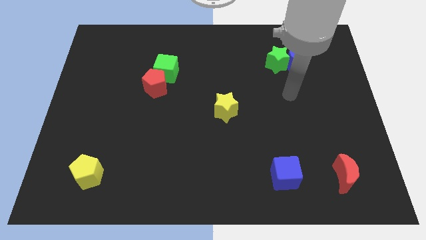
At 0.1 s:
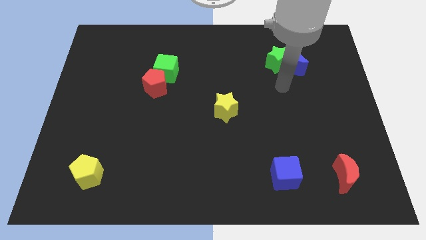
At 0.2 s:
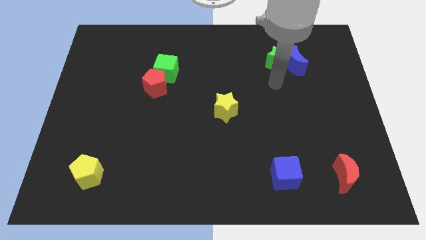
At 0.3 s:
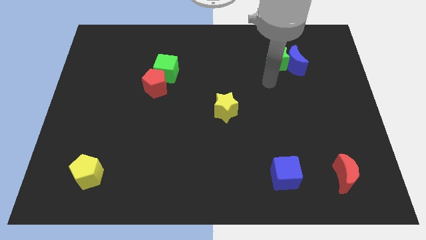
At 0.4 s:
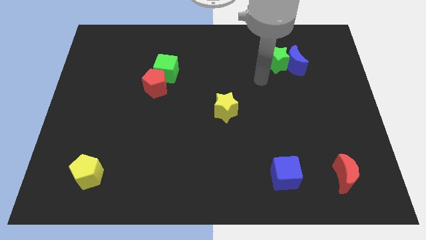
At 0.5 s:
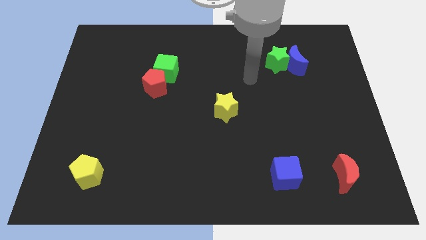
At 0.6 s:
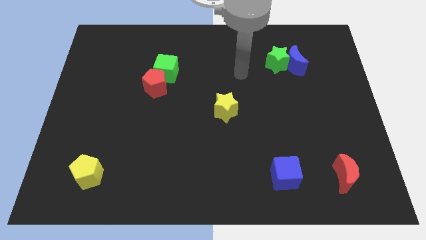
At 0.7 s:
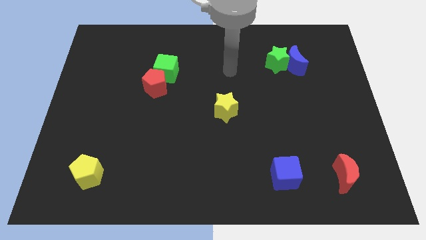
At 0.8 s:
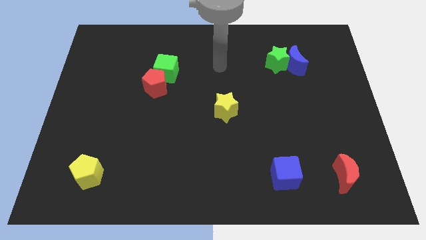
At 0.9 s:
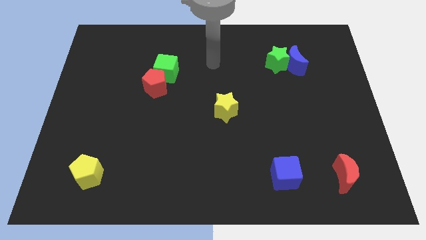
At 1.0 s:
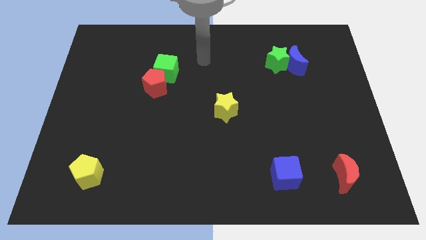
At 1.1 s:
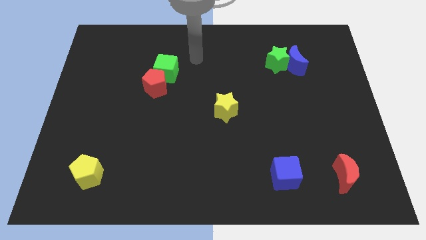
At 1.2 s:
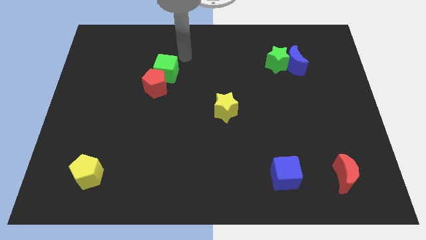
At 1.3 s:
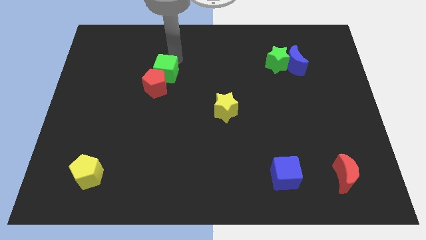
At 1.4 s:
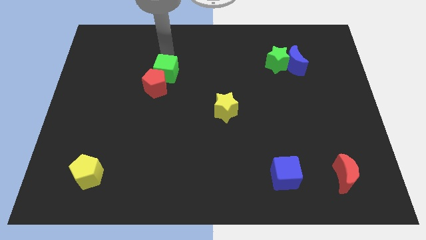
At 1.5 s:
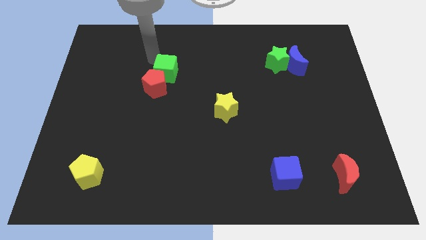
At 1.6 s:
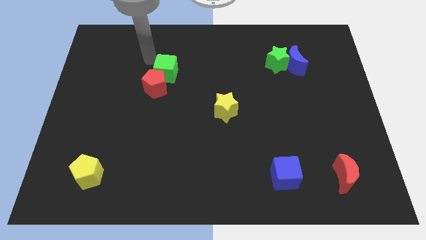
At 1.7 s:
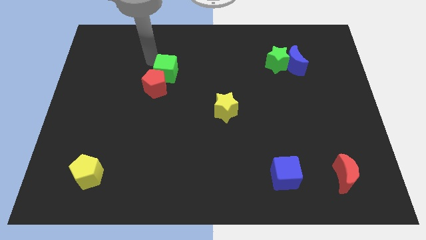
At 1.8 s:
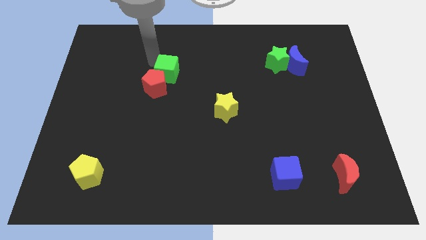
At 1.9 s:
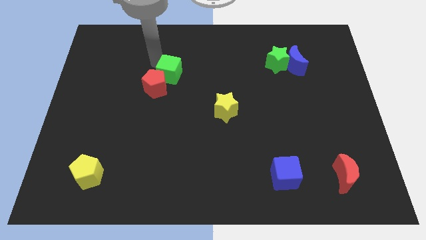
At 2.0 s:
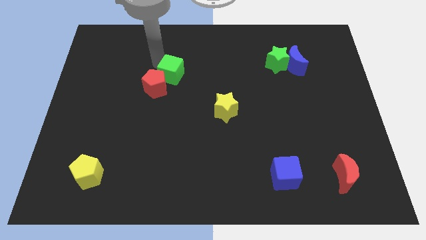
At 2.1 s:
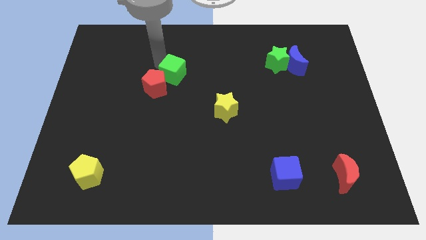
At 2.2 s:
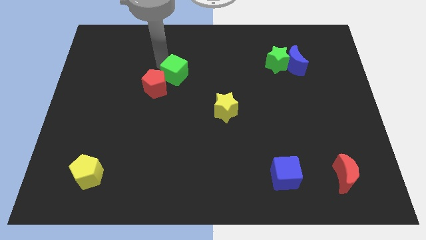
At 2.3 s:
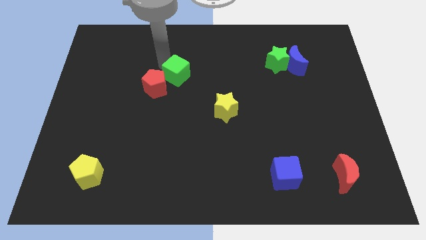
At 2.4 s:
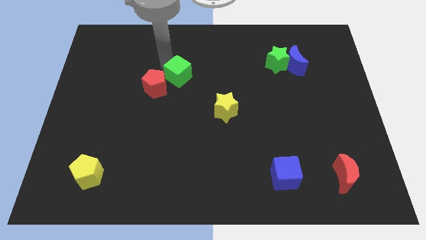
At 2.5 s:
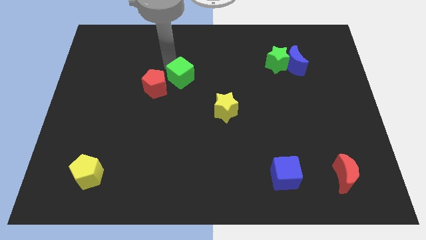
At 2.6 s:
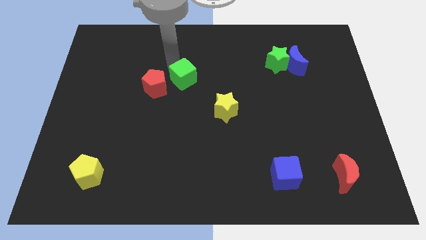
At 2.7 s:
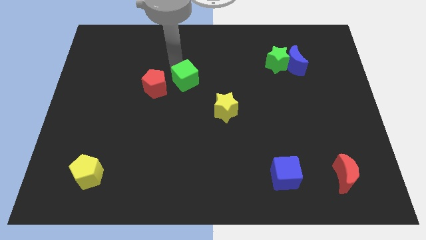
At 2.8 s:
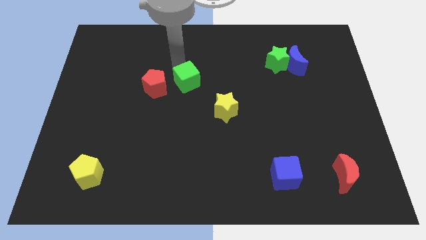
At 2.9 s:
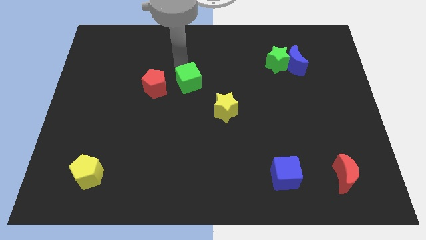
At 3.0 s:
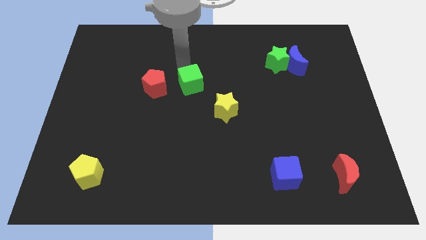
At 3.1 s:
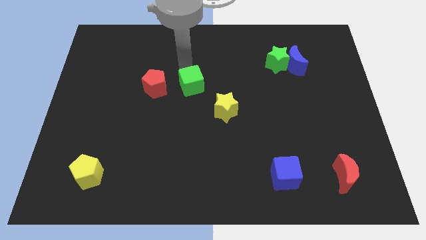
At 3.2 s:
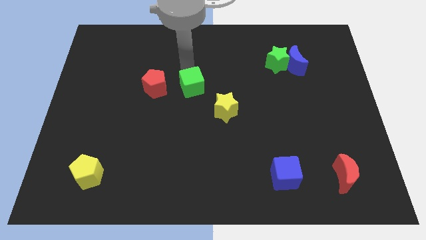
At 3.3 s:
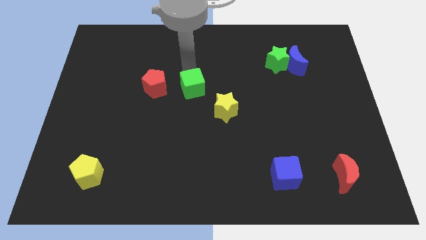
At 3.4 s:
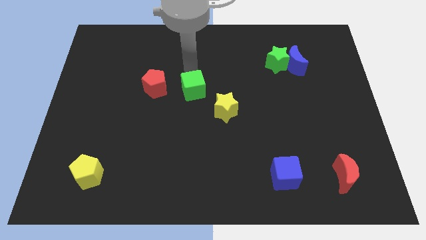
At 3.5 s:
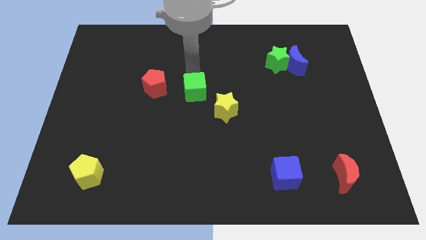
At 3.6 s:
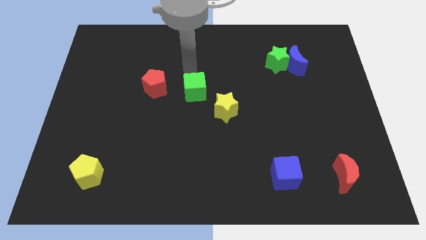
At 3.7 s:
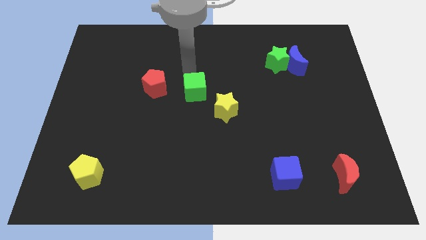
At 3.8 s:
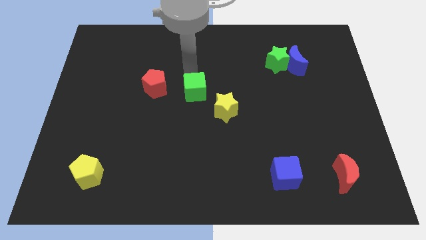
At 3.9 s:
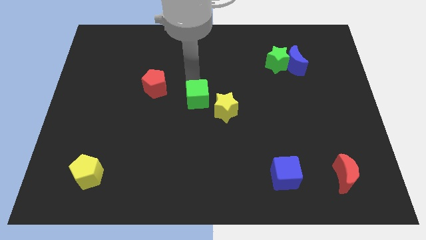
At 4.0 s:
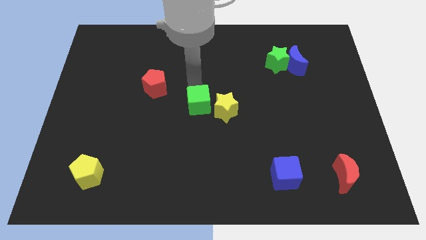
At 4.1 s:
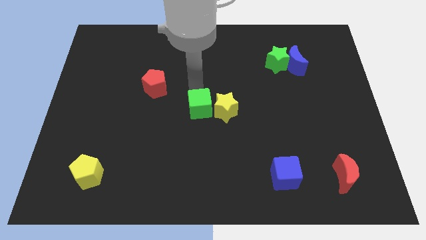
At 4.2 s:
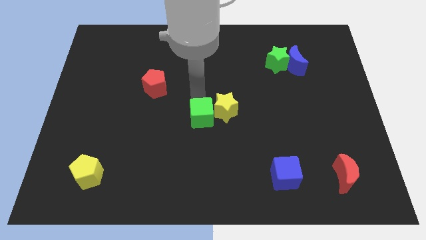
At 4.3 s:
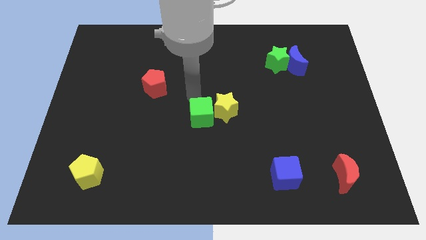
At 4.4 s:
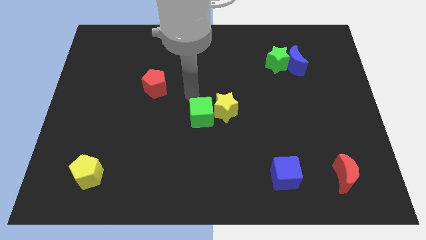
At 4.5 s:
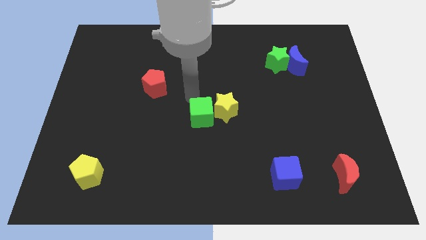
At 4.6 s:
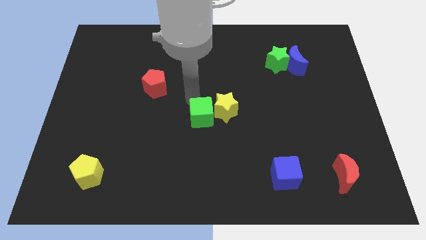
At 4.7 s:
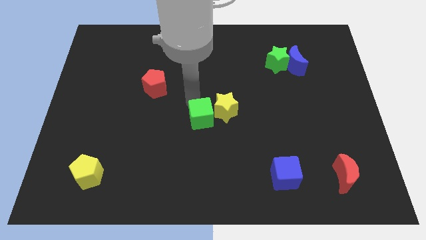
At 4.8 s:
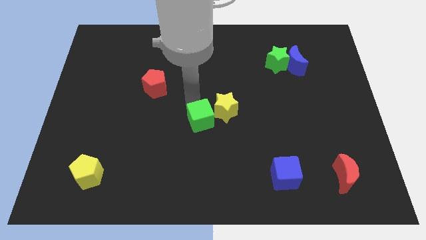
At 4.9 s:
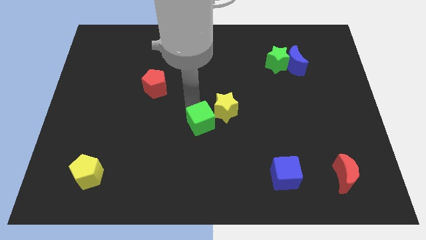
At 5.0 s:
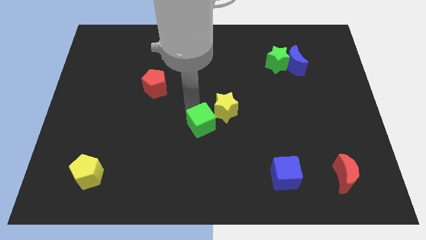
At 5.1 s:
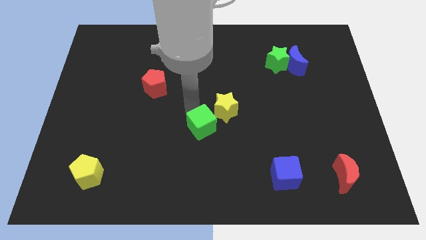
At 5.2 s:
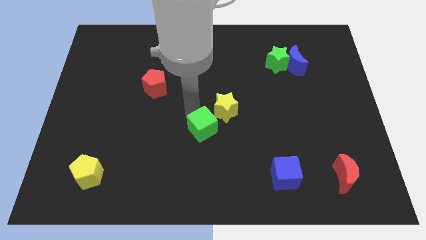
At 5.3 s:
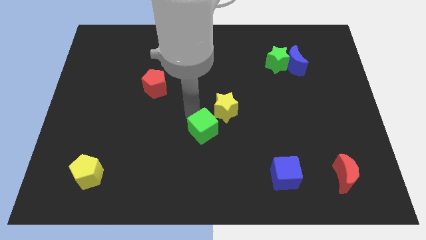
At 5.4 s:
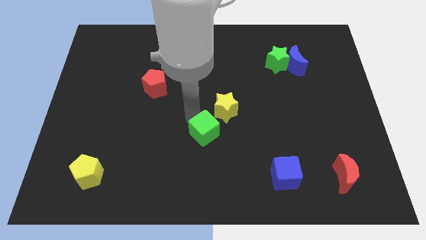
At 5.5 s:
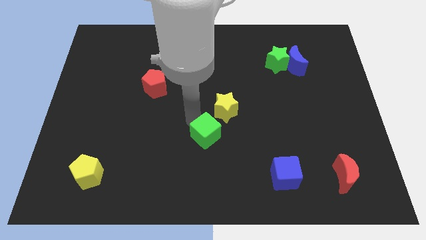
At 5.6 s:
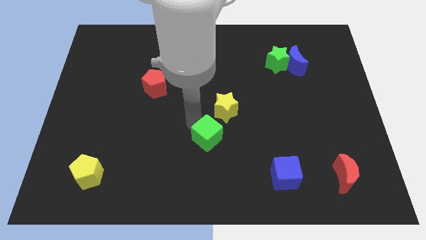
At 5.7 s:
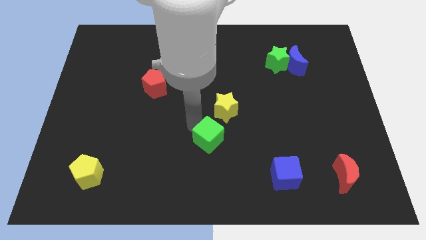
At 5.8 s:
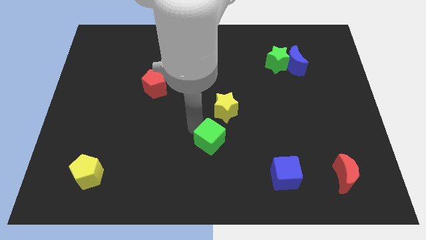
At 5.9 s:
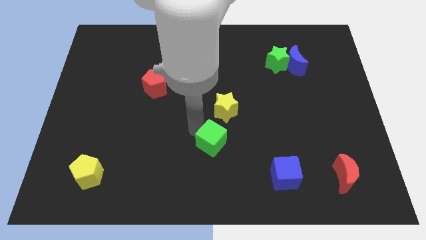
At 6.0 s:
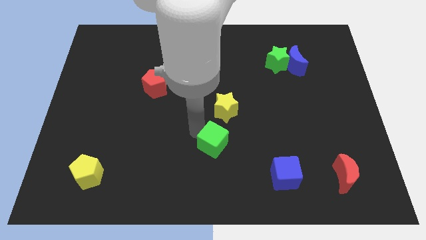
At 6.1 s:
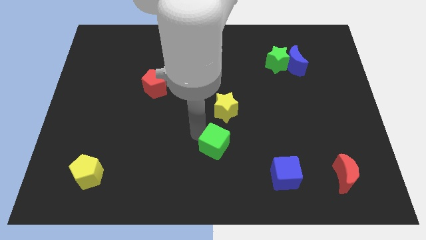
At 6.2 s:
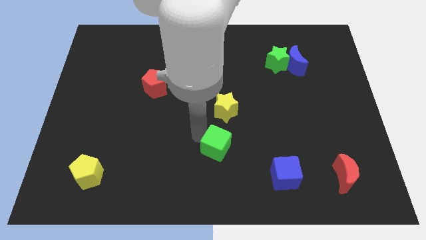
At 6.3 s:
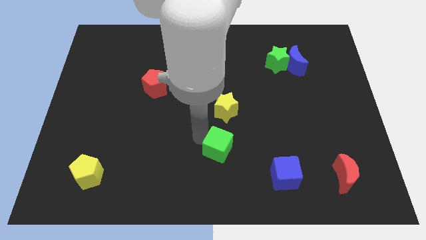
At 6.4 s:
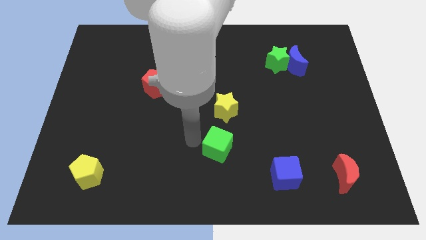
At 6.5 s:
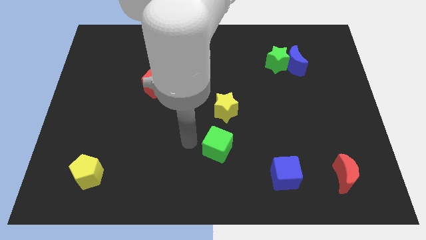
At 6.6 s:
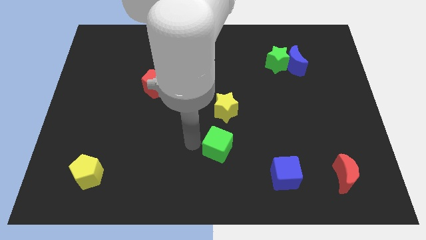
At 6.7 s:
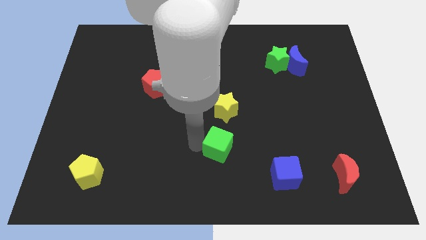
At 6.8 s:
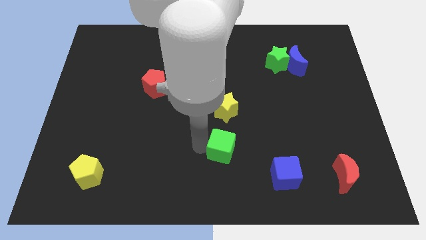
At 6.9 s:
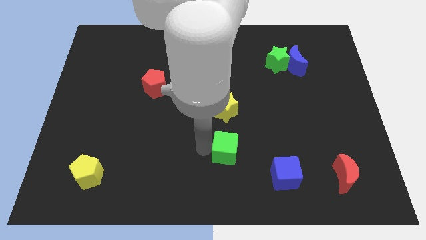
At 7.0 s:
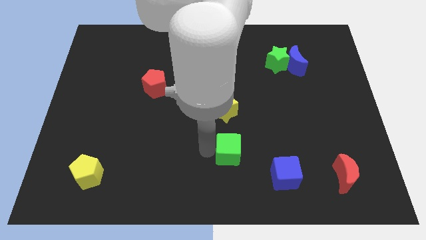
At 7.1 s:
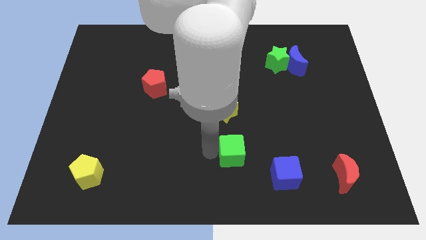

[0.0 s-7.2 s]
slide the green cube to the top left side of the blue cube
